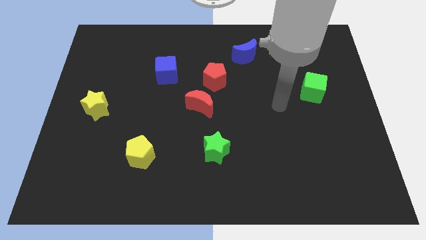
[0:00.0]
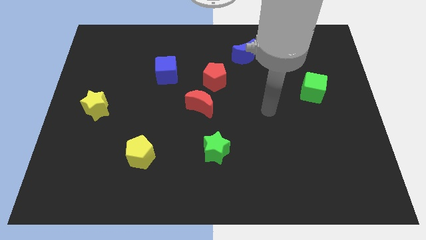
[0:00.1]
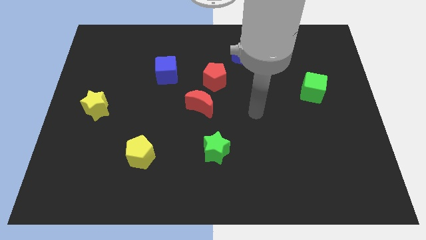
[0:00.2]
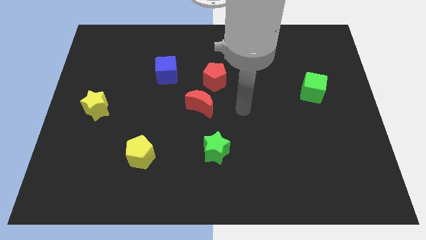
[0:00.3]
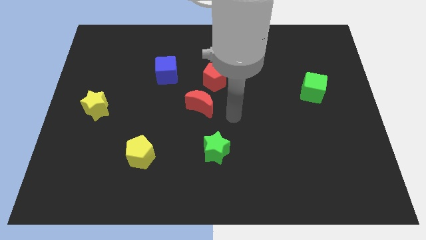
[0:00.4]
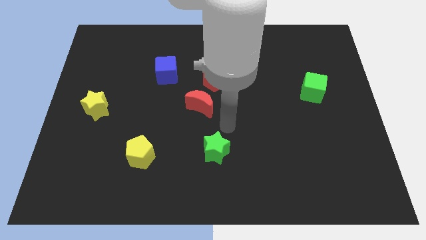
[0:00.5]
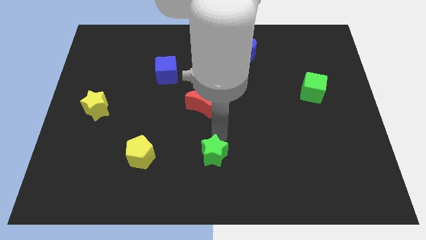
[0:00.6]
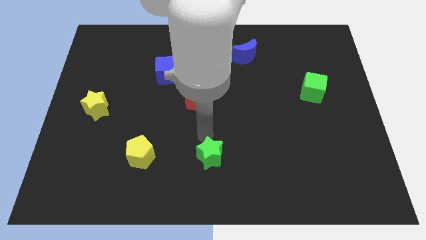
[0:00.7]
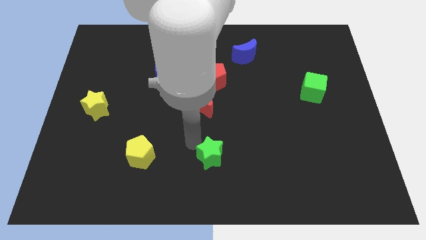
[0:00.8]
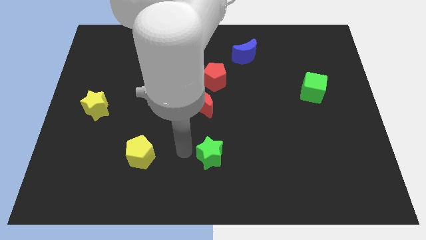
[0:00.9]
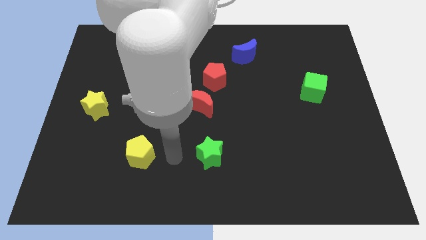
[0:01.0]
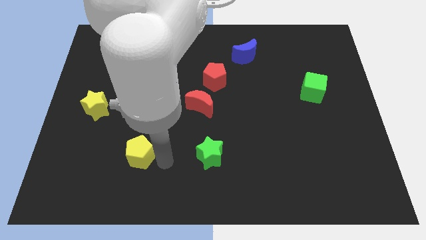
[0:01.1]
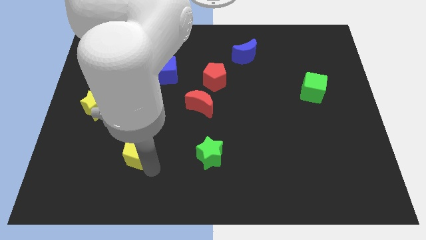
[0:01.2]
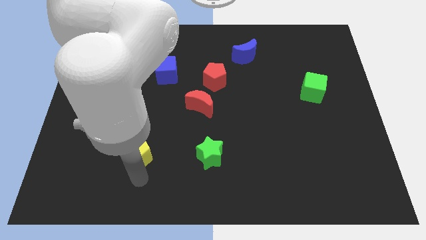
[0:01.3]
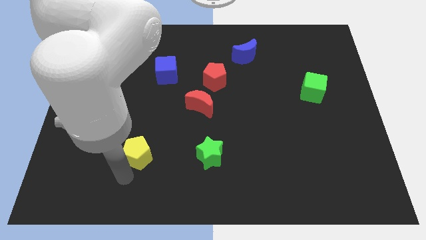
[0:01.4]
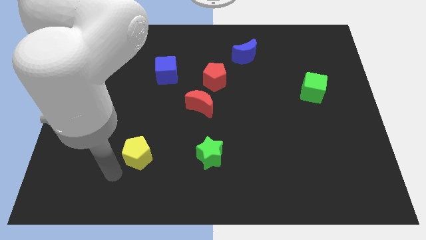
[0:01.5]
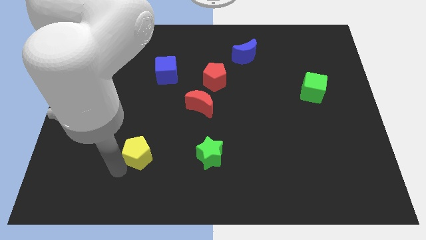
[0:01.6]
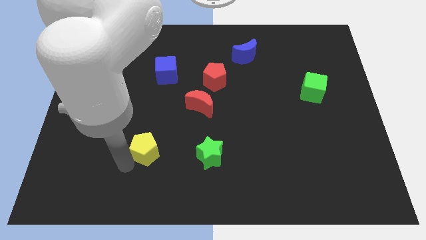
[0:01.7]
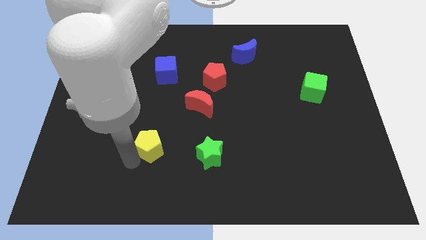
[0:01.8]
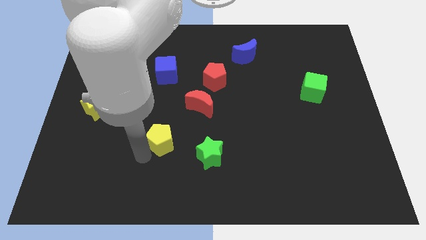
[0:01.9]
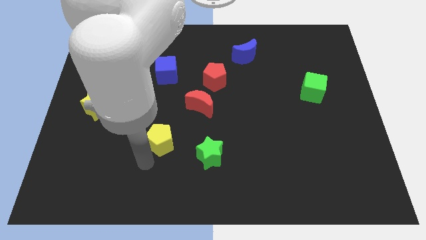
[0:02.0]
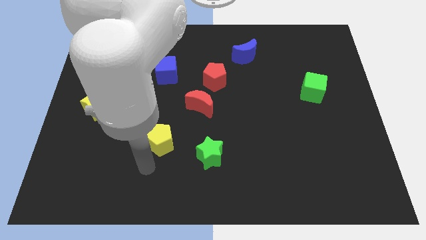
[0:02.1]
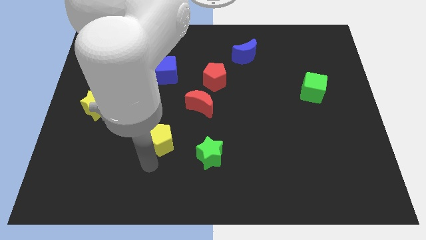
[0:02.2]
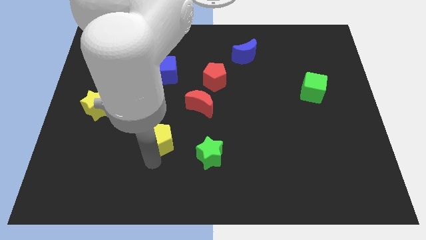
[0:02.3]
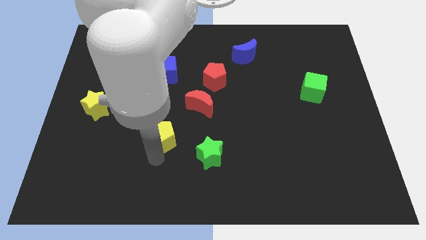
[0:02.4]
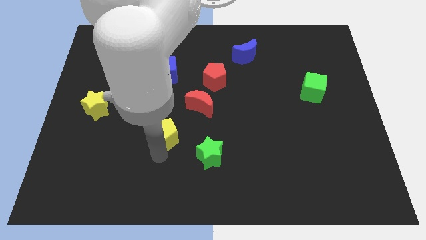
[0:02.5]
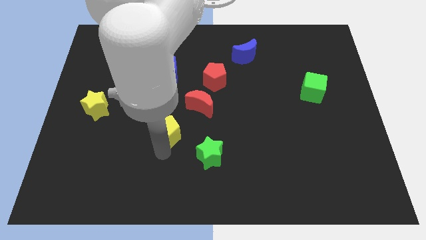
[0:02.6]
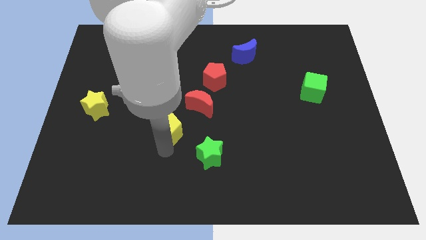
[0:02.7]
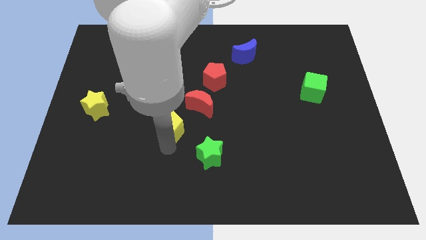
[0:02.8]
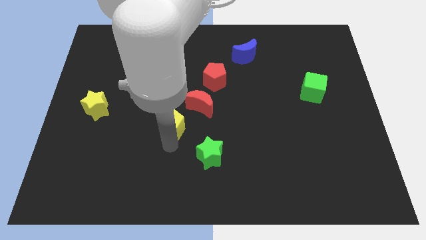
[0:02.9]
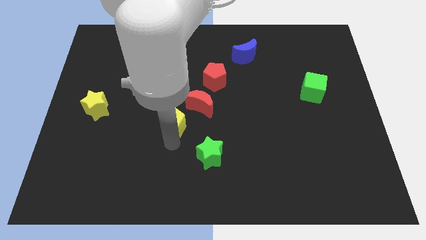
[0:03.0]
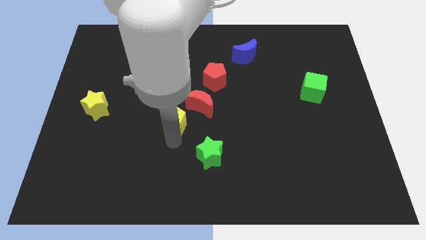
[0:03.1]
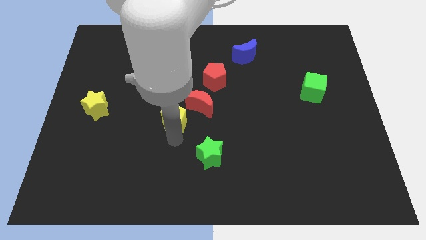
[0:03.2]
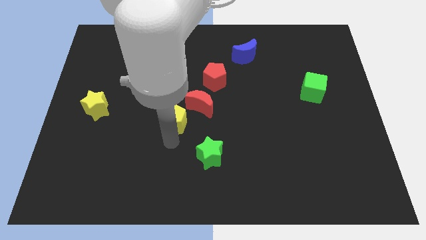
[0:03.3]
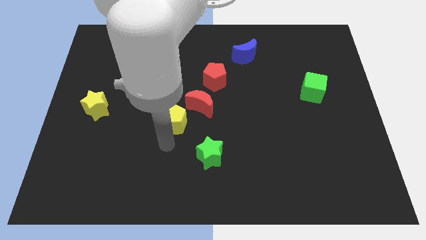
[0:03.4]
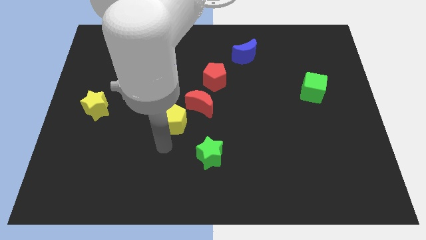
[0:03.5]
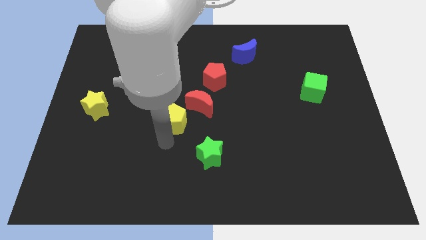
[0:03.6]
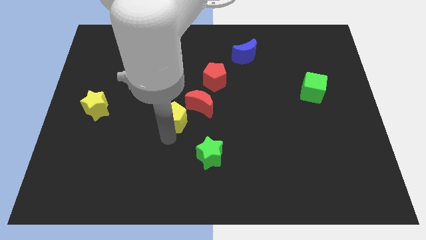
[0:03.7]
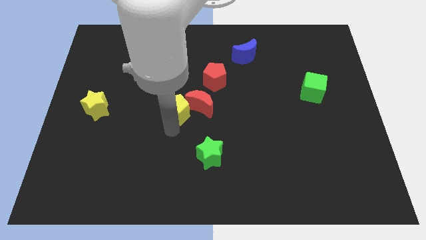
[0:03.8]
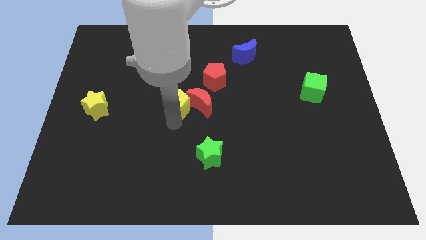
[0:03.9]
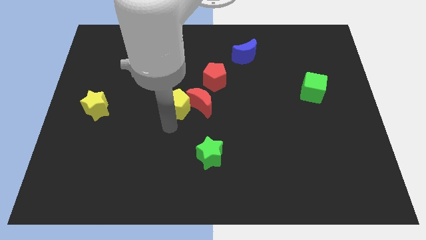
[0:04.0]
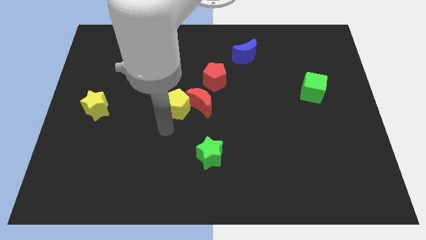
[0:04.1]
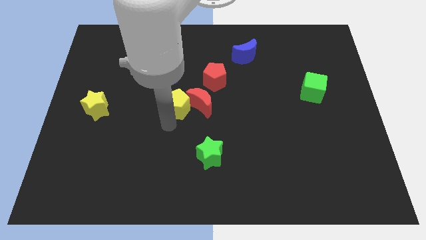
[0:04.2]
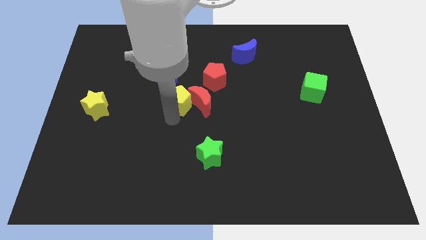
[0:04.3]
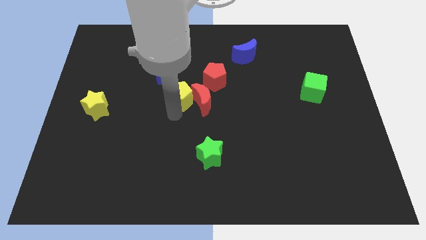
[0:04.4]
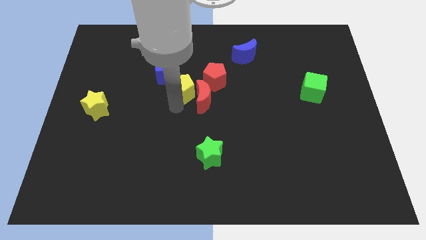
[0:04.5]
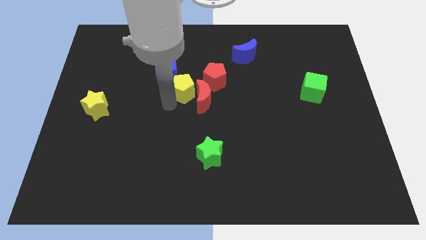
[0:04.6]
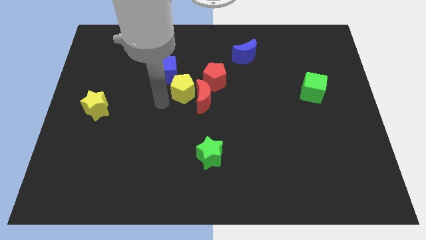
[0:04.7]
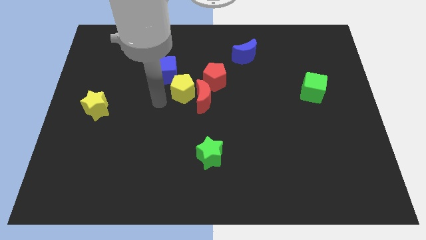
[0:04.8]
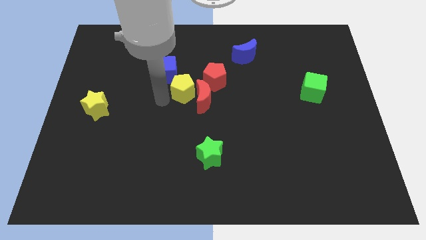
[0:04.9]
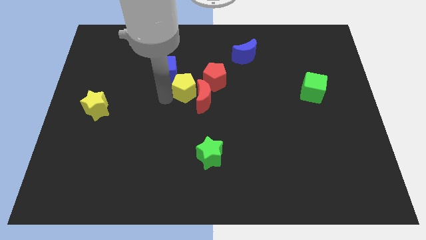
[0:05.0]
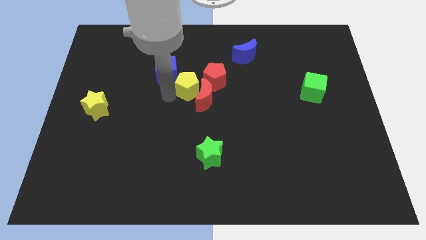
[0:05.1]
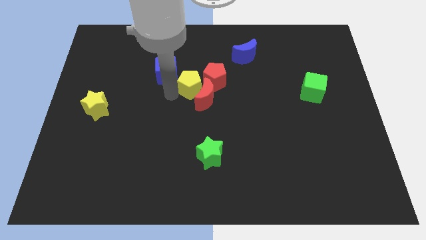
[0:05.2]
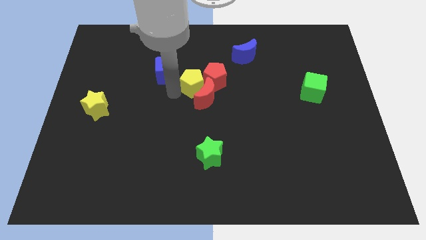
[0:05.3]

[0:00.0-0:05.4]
slide the yellow pentagon to the red pentagon

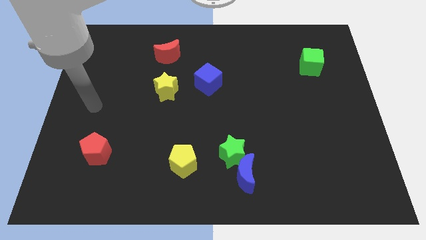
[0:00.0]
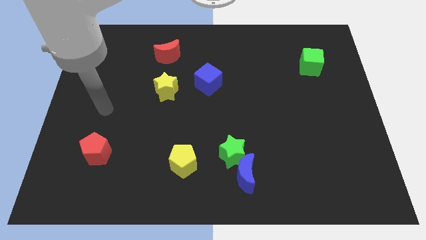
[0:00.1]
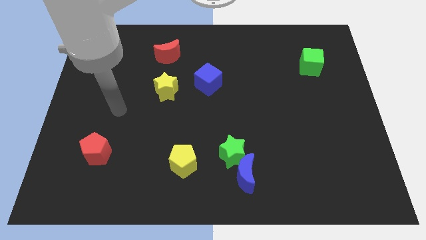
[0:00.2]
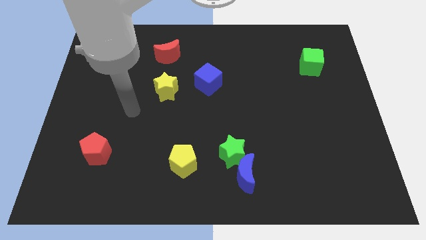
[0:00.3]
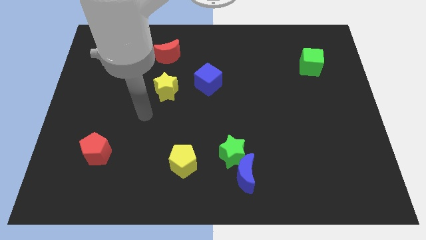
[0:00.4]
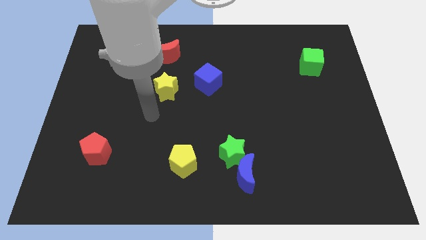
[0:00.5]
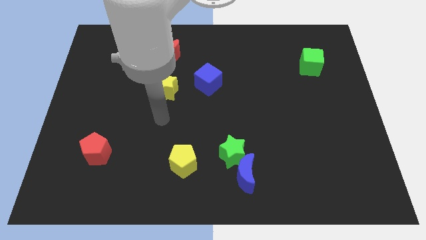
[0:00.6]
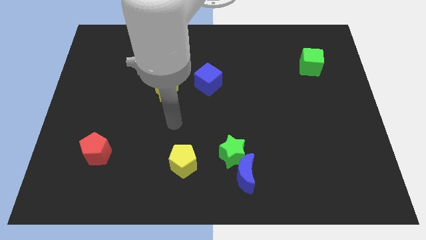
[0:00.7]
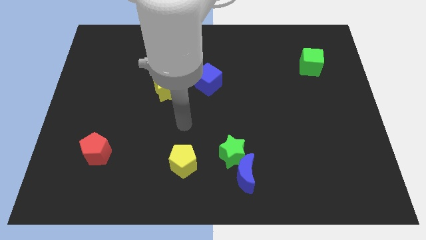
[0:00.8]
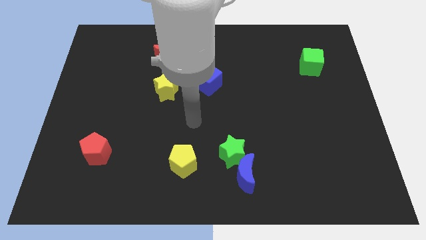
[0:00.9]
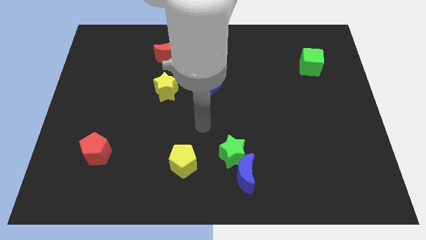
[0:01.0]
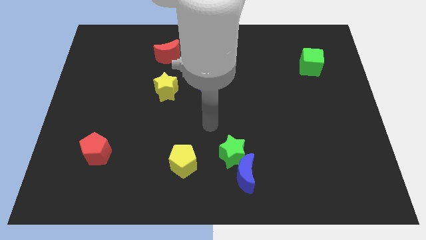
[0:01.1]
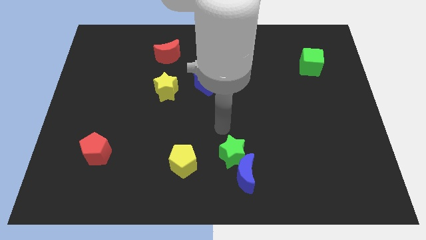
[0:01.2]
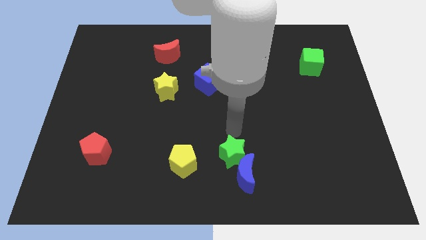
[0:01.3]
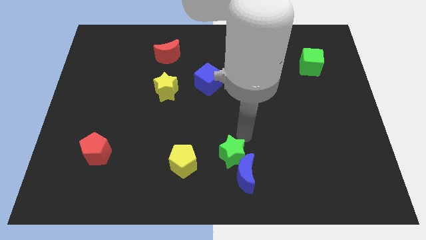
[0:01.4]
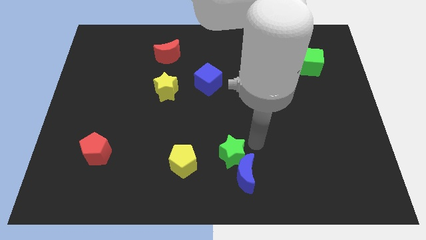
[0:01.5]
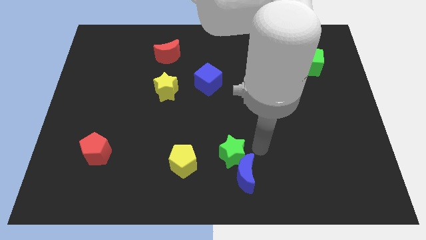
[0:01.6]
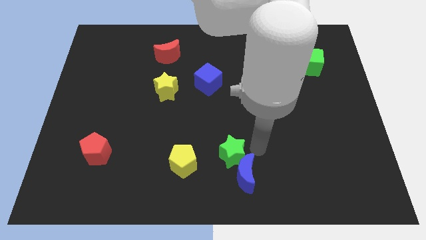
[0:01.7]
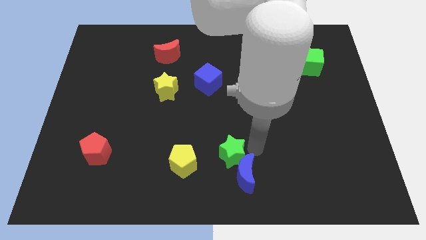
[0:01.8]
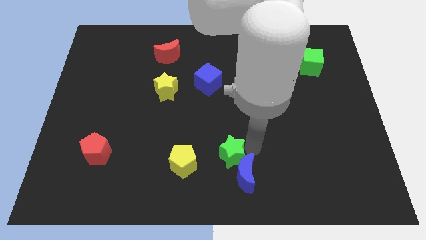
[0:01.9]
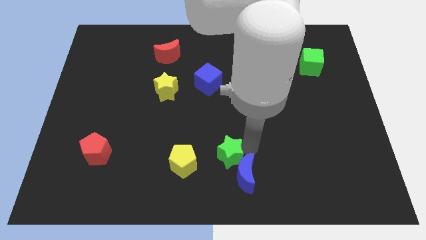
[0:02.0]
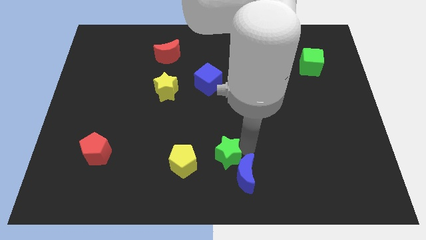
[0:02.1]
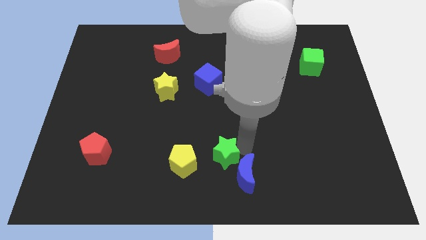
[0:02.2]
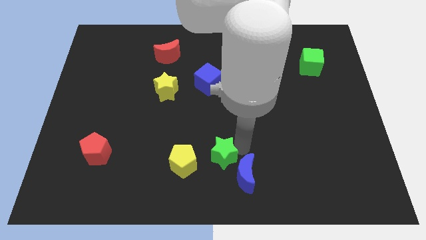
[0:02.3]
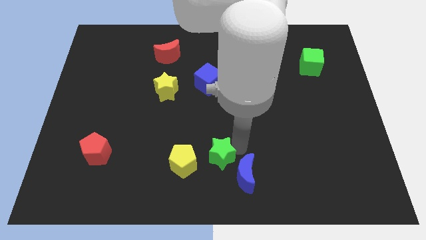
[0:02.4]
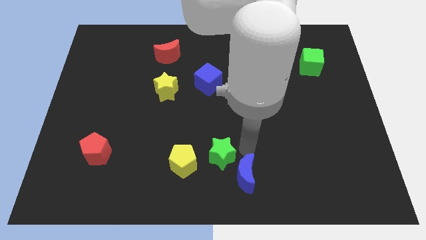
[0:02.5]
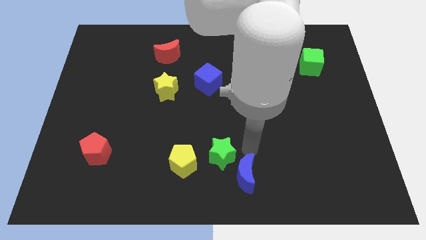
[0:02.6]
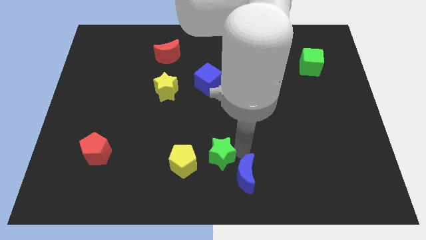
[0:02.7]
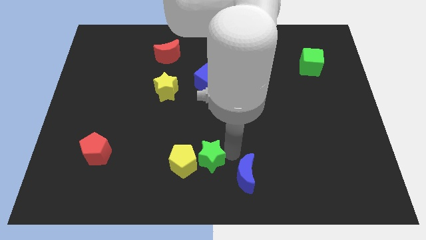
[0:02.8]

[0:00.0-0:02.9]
put the green star close to the yellow pentagon

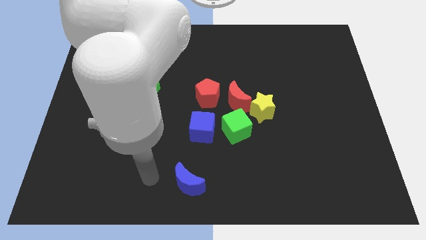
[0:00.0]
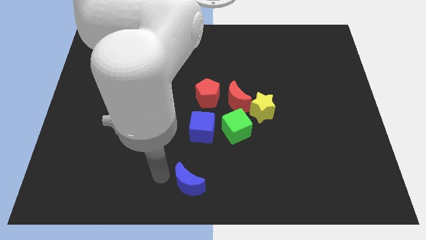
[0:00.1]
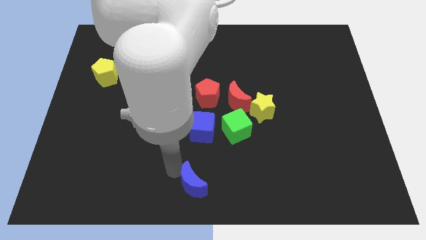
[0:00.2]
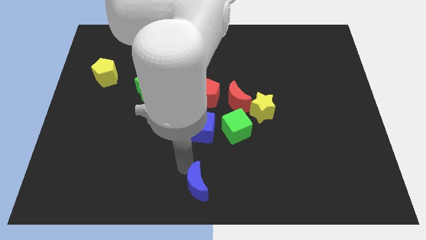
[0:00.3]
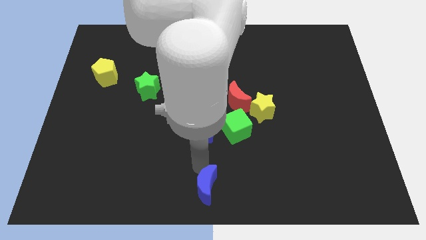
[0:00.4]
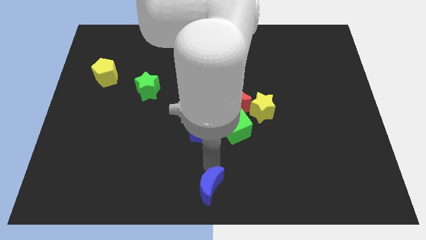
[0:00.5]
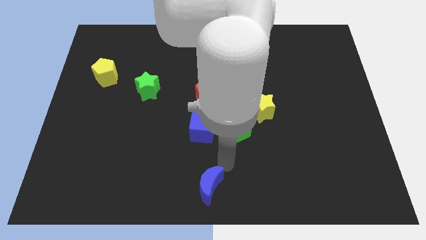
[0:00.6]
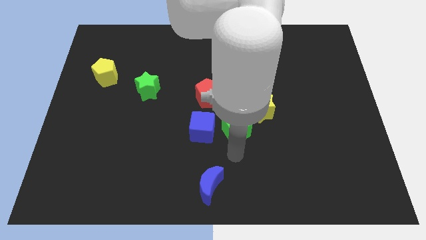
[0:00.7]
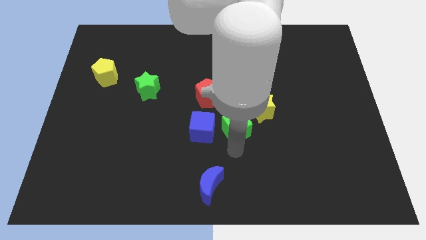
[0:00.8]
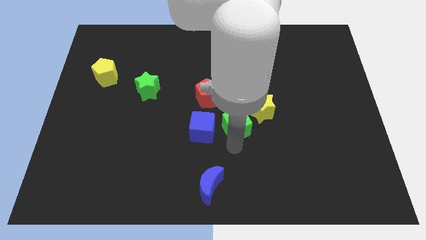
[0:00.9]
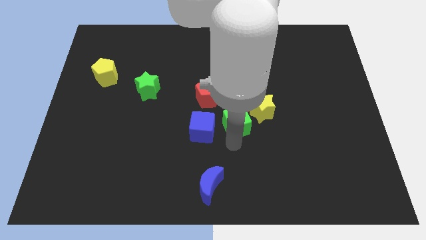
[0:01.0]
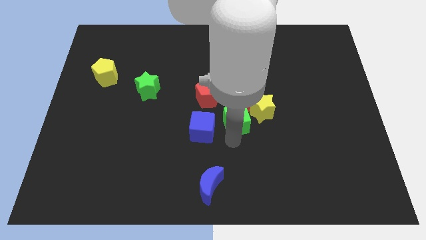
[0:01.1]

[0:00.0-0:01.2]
push the green cube to the red moon
